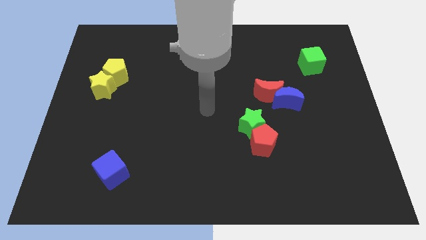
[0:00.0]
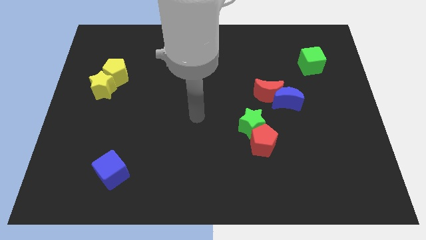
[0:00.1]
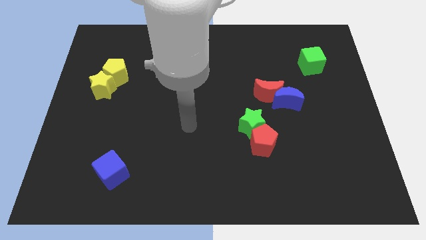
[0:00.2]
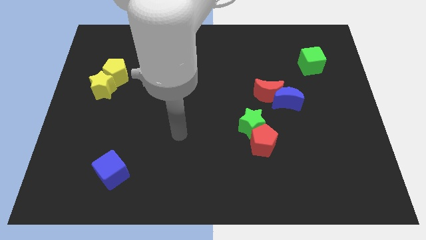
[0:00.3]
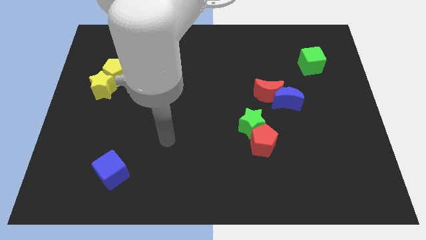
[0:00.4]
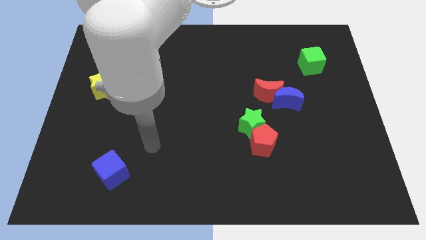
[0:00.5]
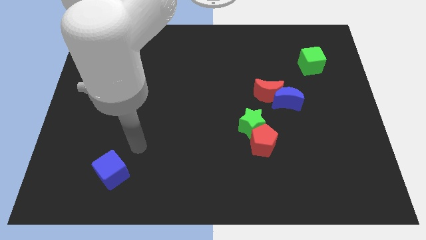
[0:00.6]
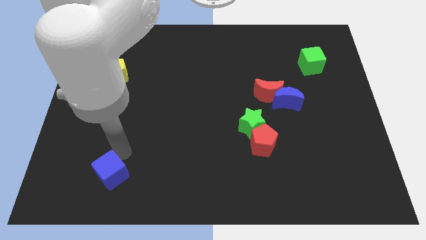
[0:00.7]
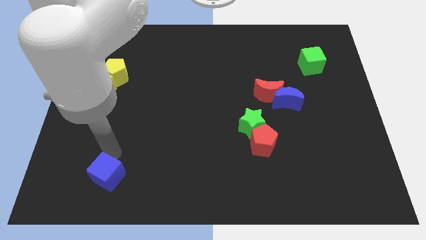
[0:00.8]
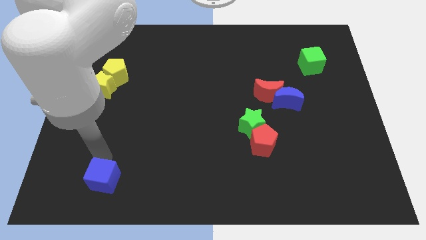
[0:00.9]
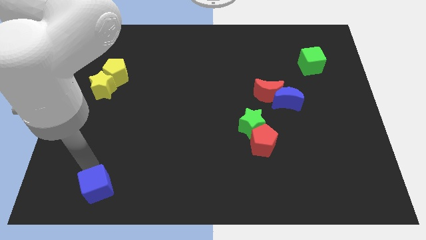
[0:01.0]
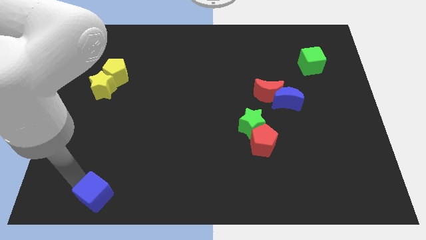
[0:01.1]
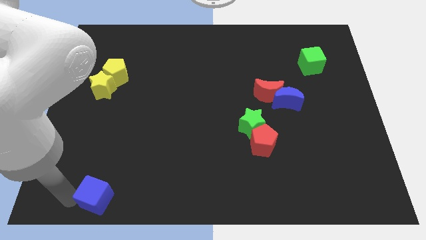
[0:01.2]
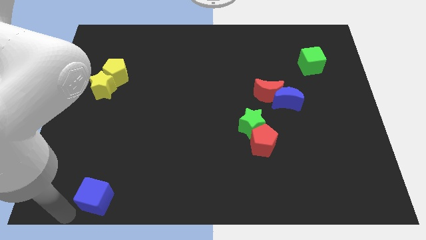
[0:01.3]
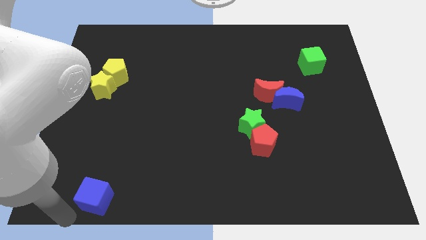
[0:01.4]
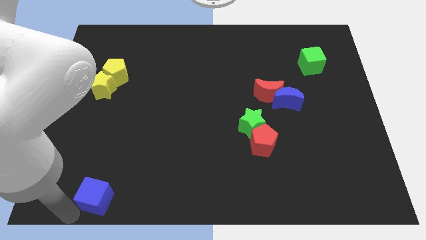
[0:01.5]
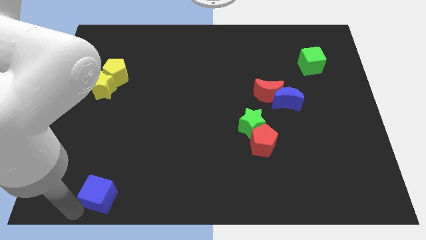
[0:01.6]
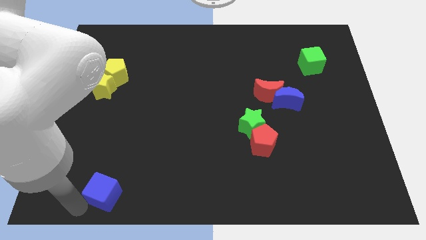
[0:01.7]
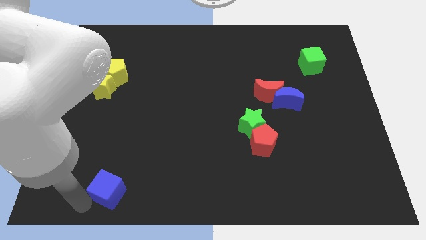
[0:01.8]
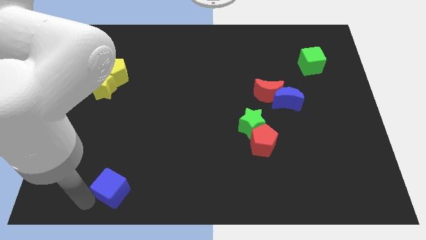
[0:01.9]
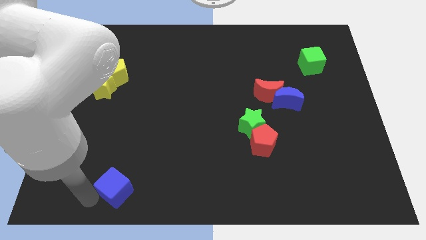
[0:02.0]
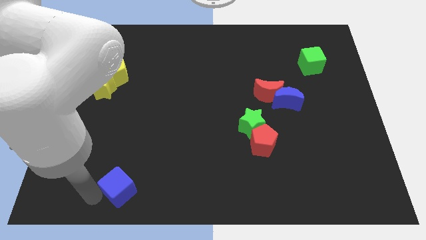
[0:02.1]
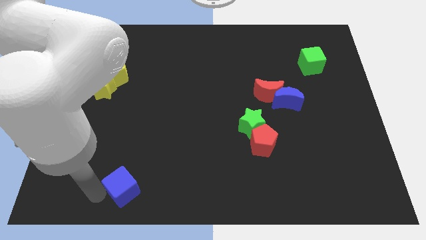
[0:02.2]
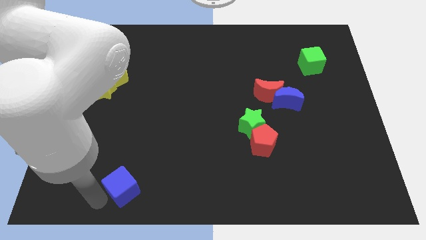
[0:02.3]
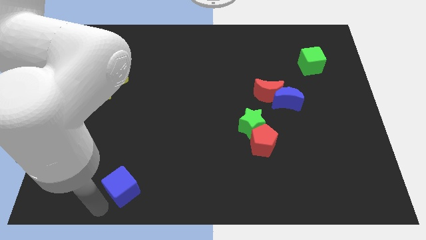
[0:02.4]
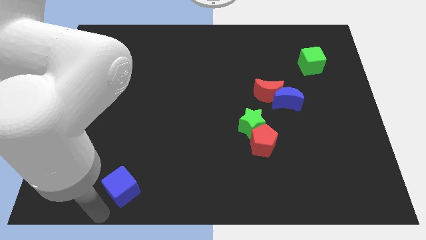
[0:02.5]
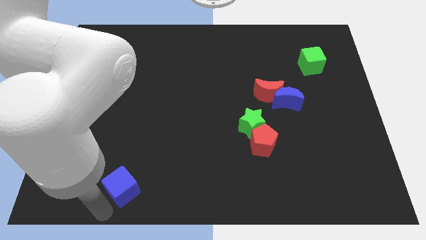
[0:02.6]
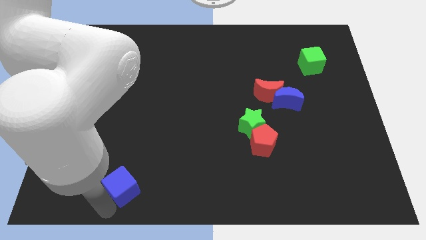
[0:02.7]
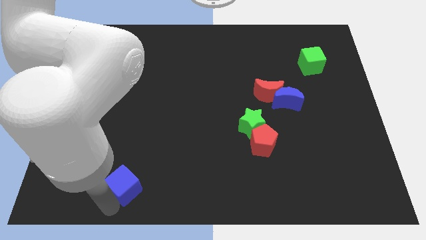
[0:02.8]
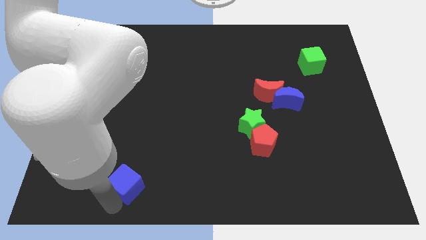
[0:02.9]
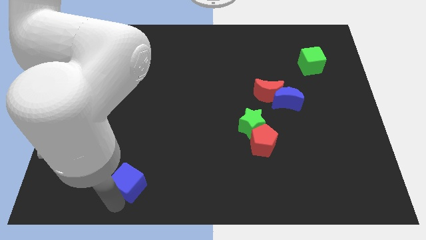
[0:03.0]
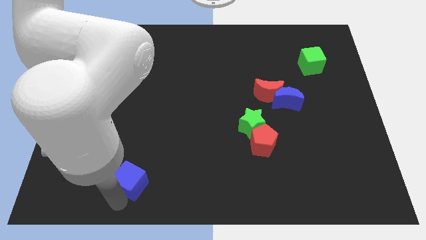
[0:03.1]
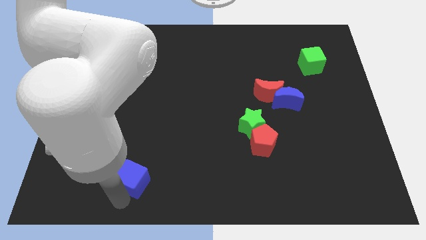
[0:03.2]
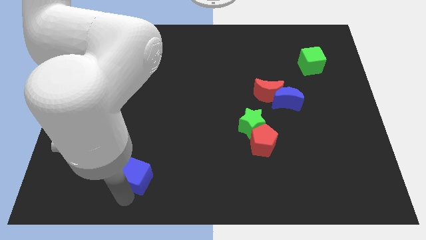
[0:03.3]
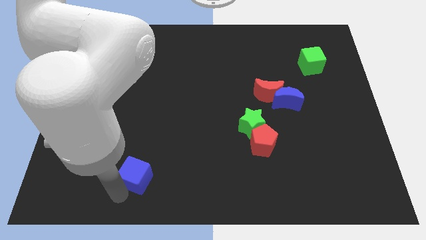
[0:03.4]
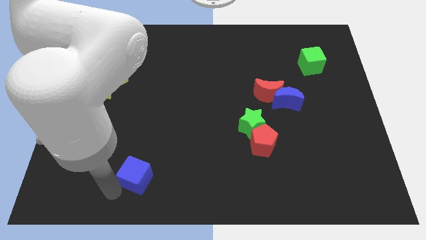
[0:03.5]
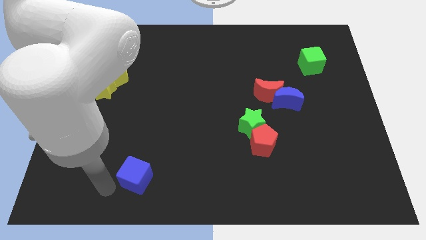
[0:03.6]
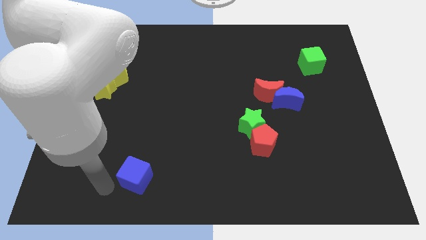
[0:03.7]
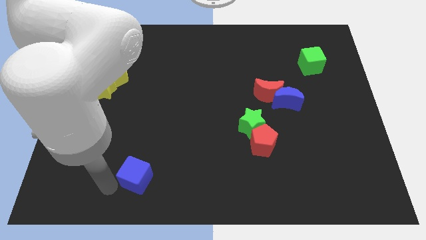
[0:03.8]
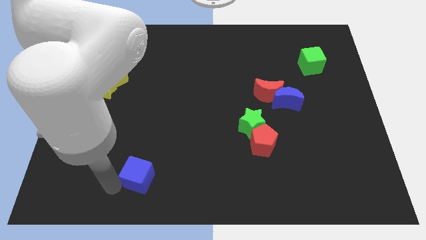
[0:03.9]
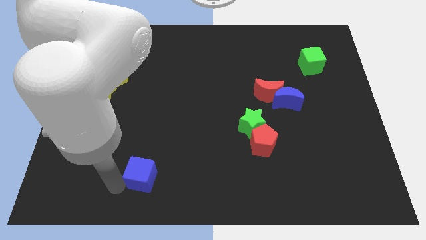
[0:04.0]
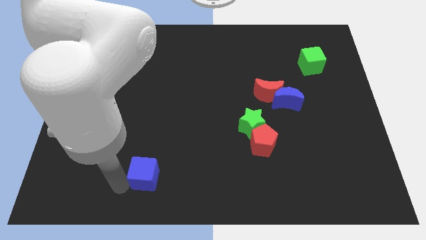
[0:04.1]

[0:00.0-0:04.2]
slightly push the blue cube right

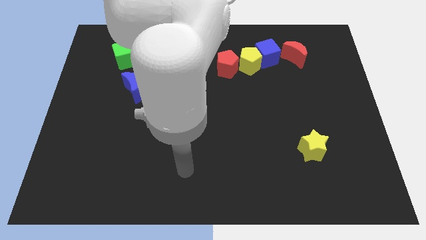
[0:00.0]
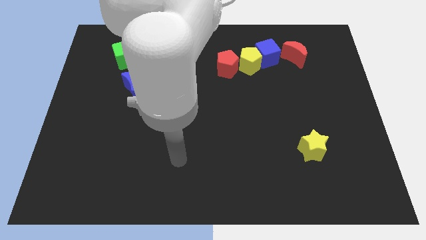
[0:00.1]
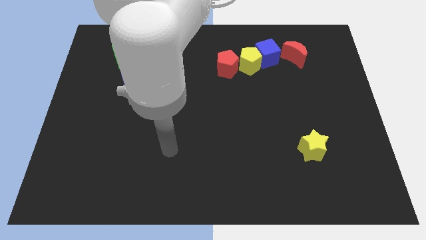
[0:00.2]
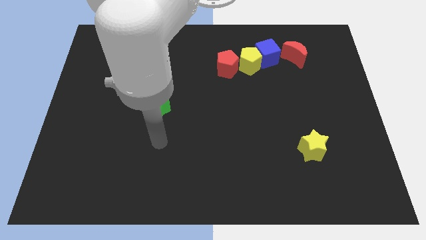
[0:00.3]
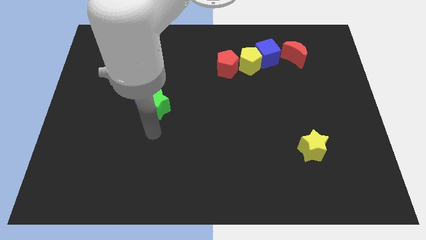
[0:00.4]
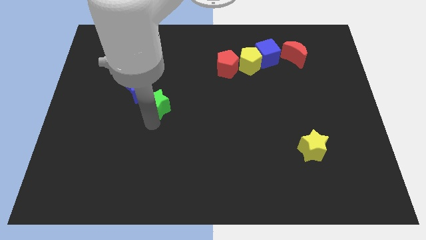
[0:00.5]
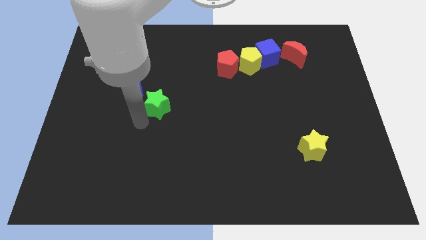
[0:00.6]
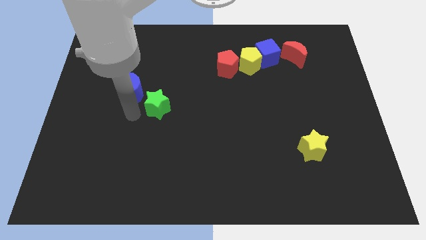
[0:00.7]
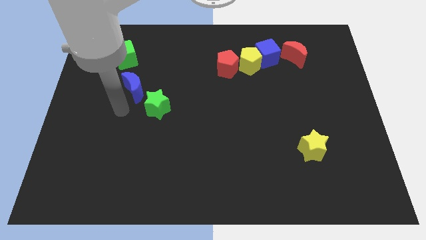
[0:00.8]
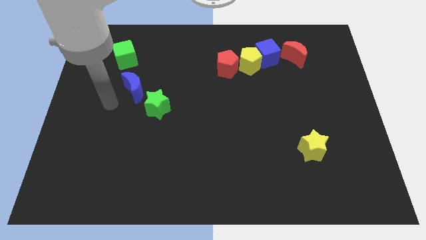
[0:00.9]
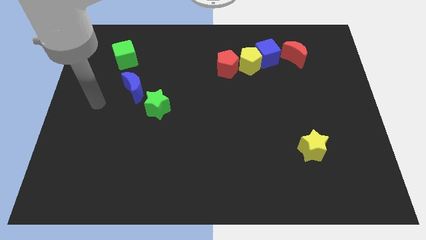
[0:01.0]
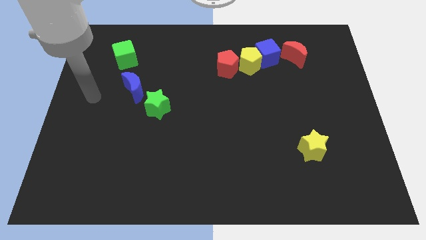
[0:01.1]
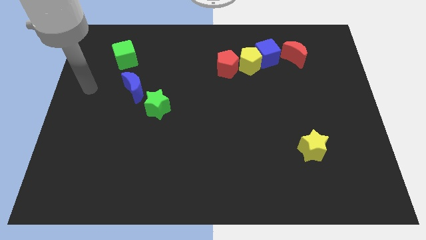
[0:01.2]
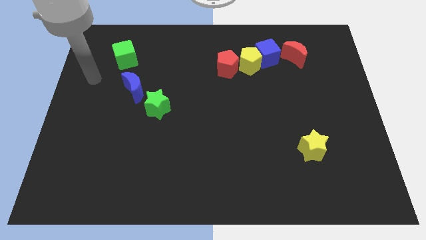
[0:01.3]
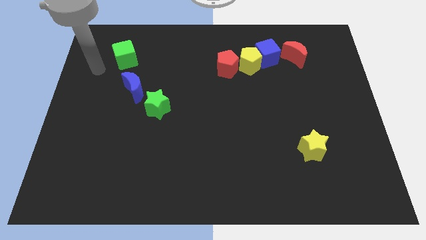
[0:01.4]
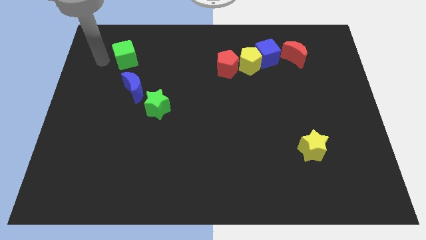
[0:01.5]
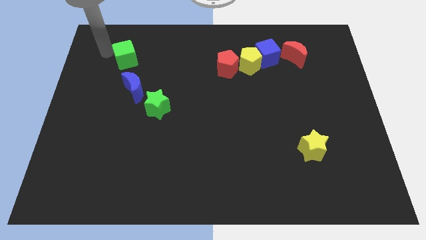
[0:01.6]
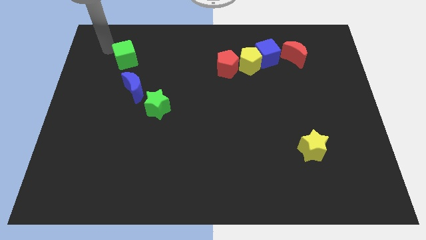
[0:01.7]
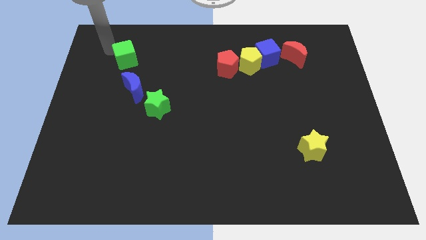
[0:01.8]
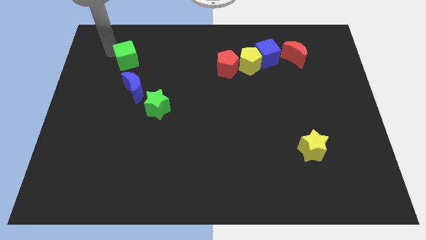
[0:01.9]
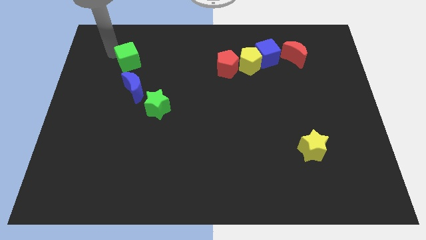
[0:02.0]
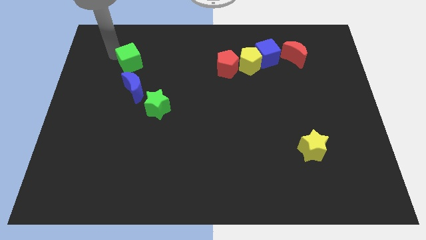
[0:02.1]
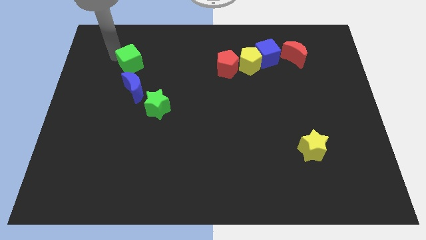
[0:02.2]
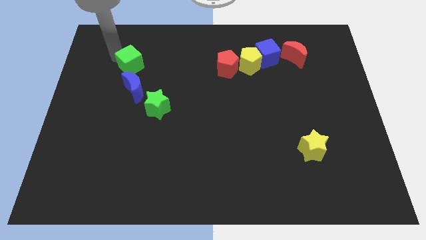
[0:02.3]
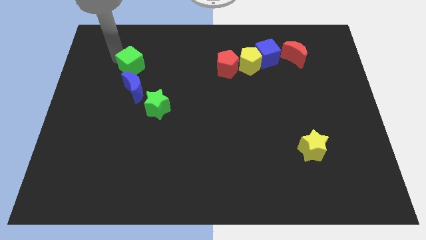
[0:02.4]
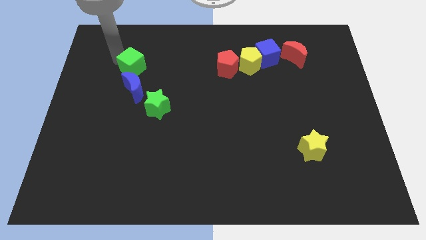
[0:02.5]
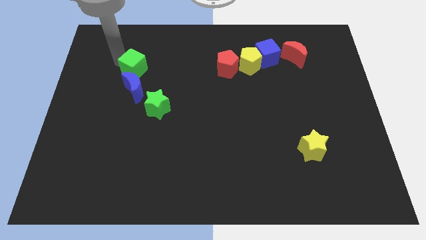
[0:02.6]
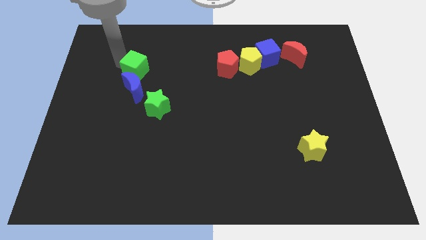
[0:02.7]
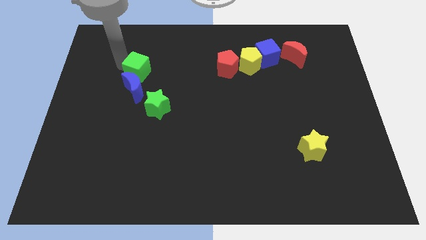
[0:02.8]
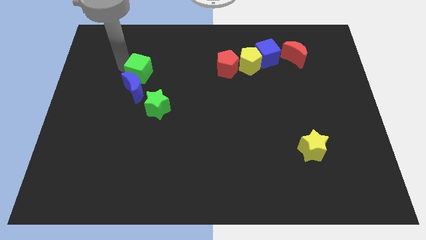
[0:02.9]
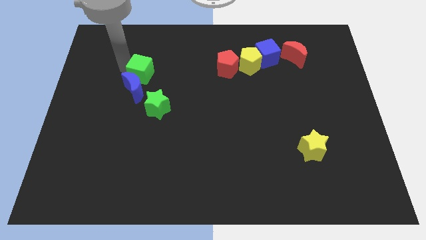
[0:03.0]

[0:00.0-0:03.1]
slightly slide the green cube downwards and then right

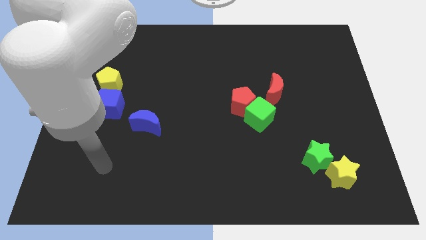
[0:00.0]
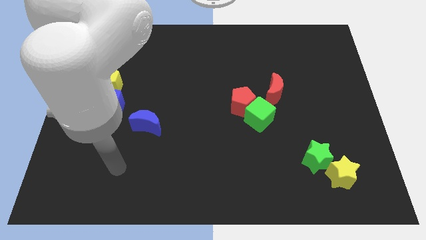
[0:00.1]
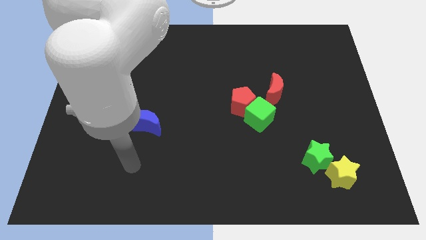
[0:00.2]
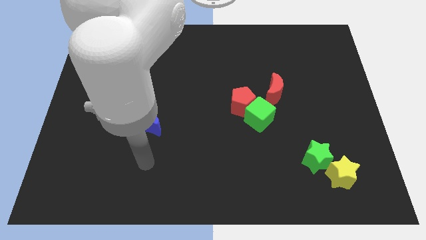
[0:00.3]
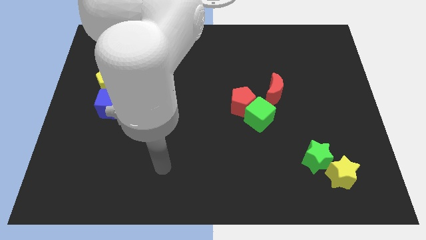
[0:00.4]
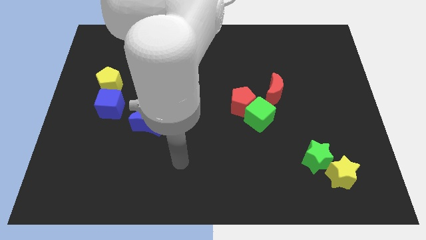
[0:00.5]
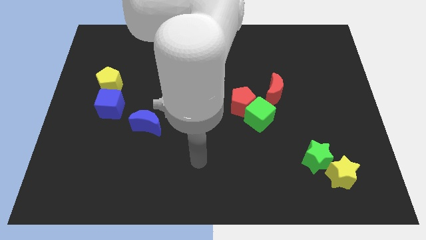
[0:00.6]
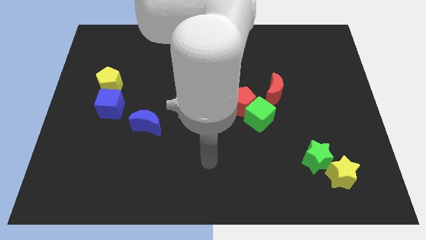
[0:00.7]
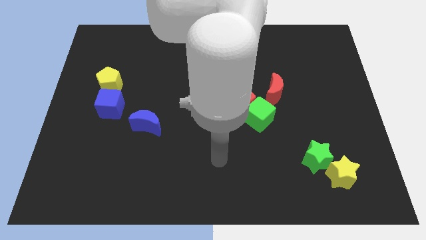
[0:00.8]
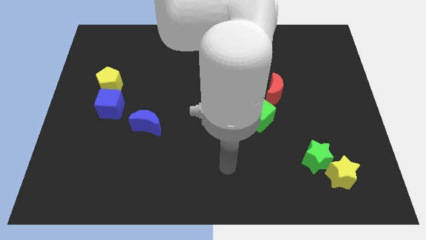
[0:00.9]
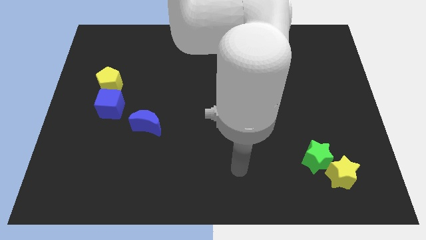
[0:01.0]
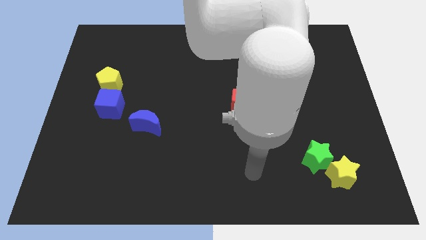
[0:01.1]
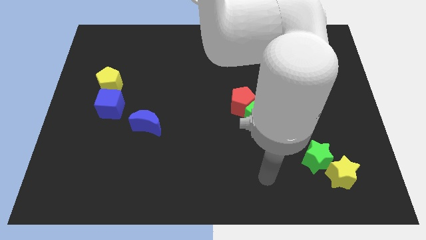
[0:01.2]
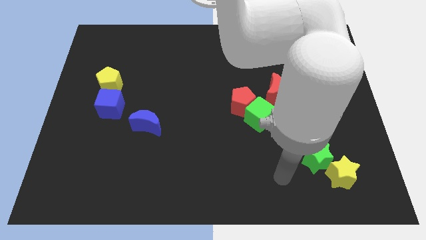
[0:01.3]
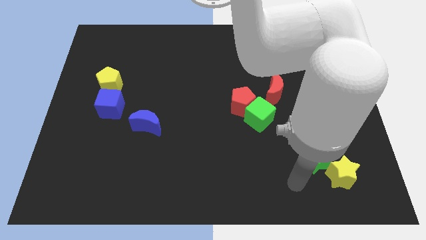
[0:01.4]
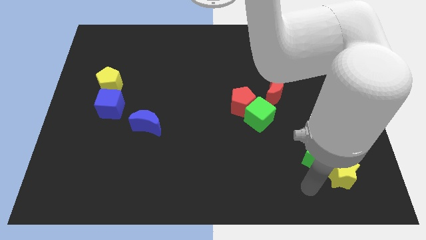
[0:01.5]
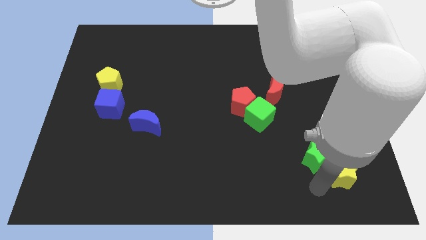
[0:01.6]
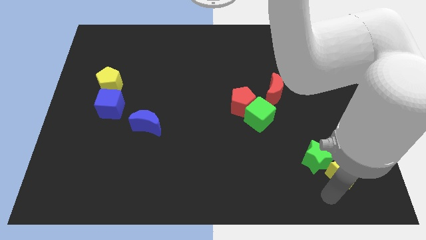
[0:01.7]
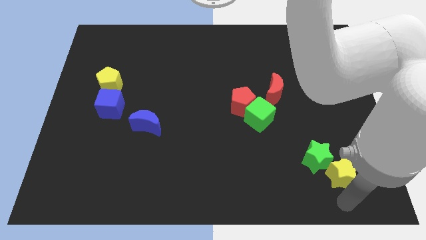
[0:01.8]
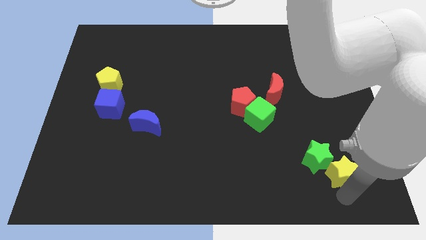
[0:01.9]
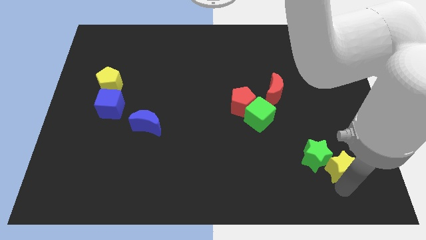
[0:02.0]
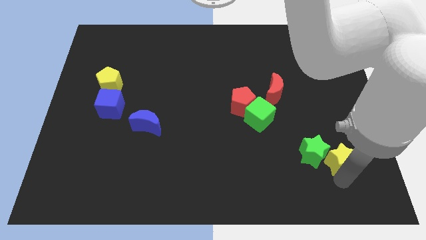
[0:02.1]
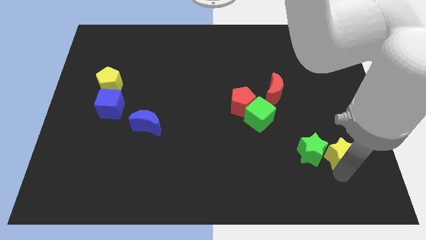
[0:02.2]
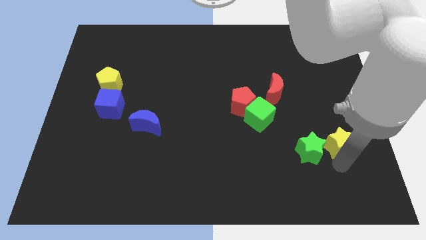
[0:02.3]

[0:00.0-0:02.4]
move the yellow star somewhat up
